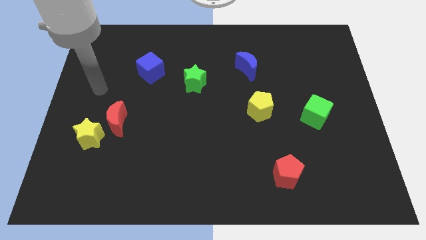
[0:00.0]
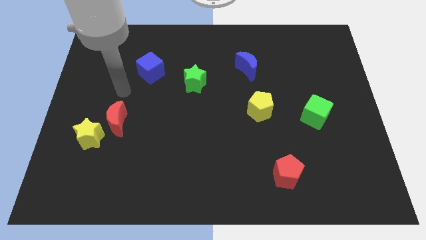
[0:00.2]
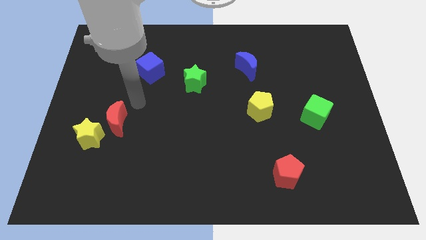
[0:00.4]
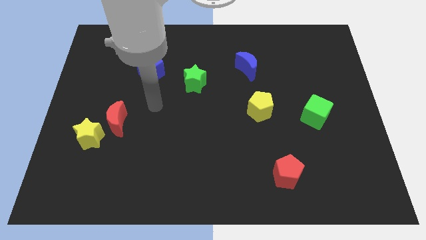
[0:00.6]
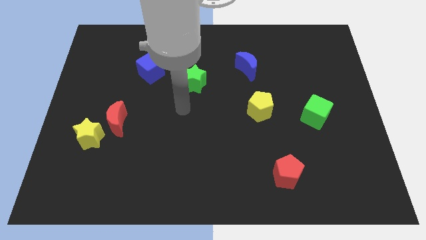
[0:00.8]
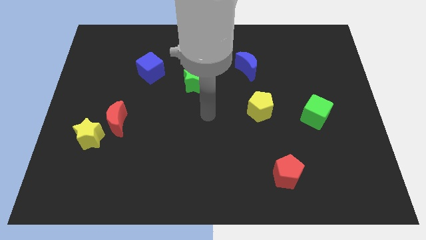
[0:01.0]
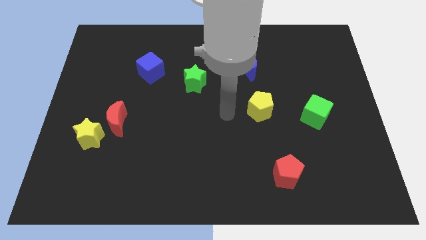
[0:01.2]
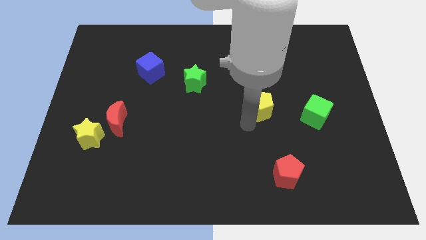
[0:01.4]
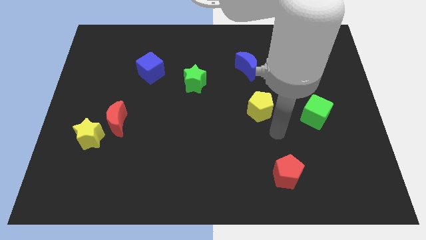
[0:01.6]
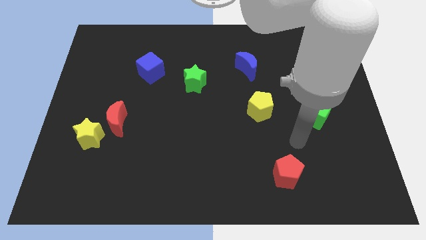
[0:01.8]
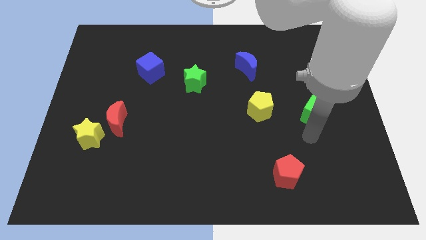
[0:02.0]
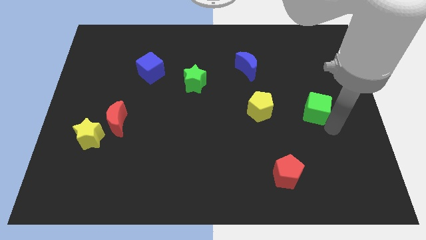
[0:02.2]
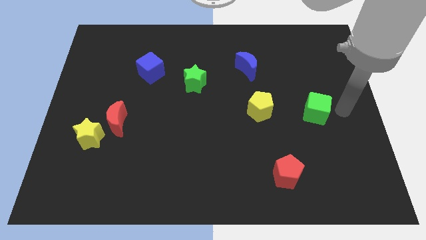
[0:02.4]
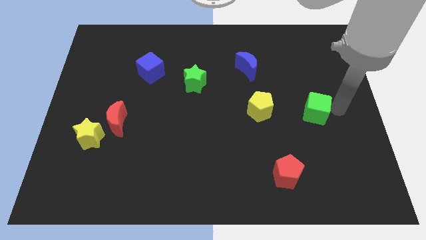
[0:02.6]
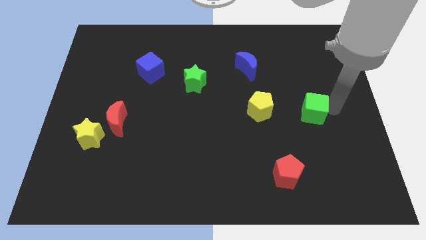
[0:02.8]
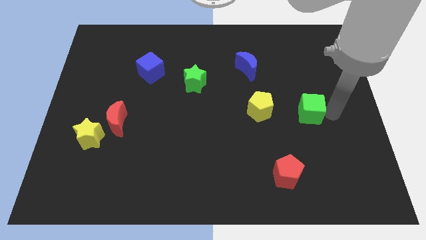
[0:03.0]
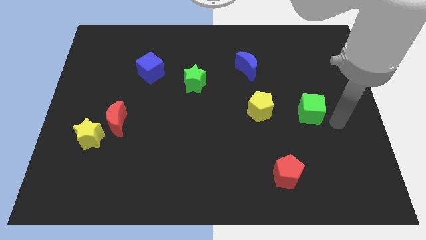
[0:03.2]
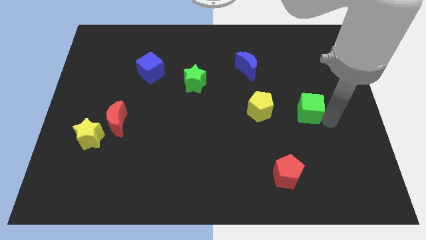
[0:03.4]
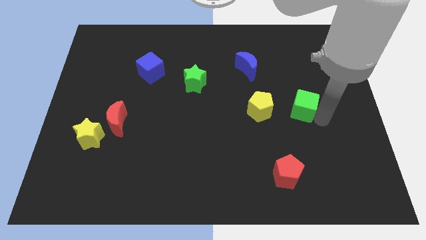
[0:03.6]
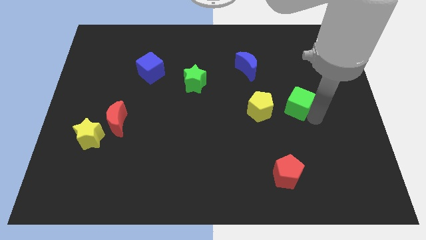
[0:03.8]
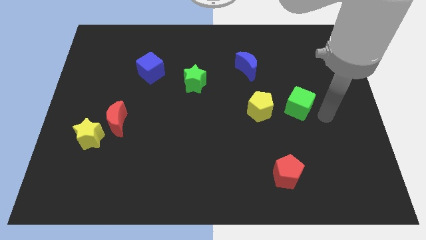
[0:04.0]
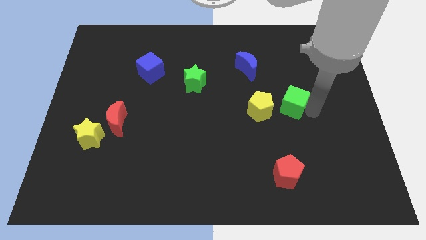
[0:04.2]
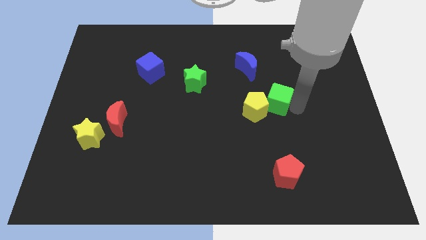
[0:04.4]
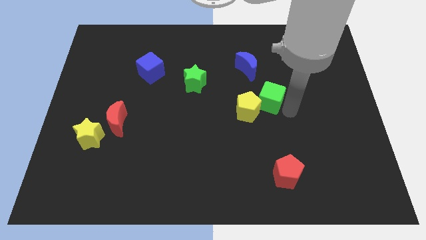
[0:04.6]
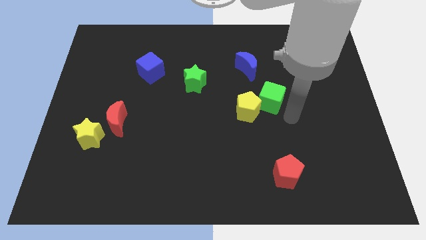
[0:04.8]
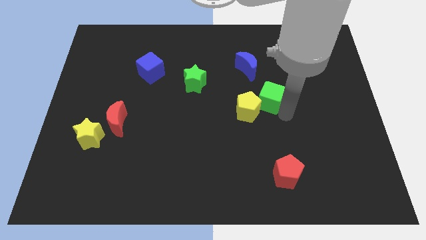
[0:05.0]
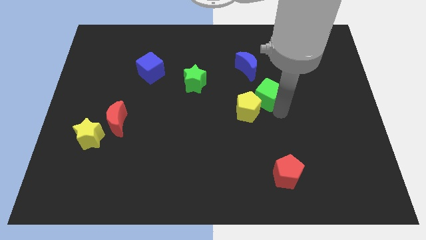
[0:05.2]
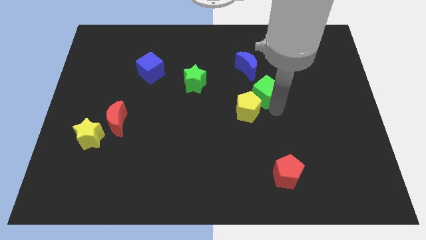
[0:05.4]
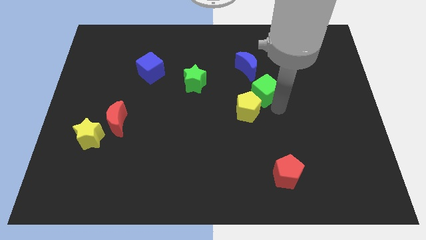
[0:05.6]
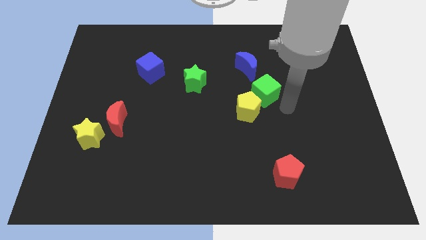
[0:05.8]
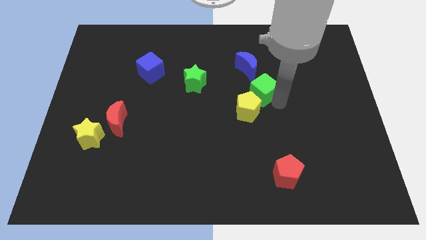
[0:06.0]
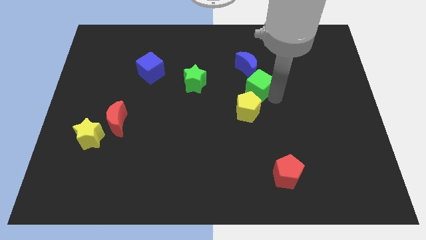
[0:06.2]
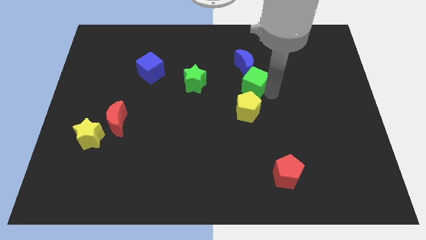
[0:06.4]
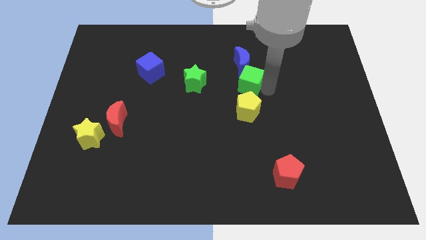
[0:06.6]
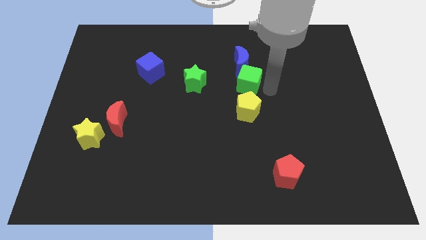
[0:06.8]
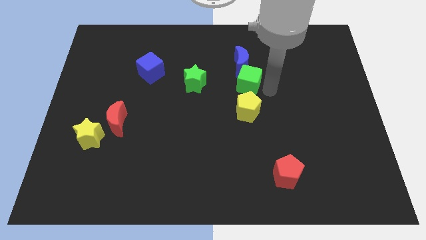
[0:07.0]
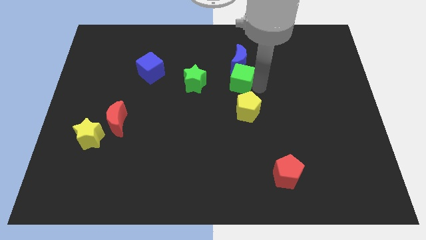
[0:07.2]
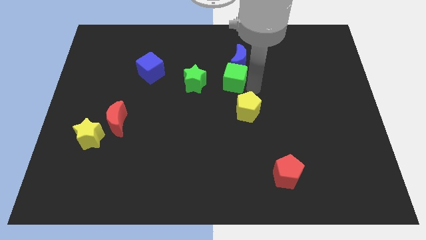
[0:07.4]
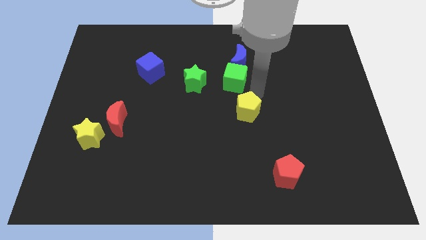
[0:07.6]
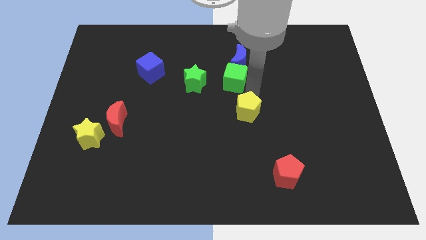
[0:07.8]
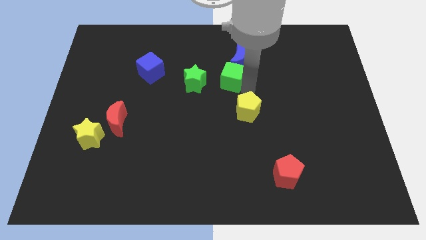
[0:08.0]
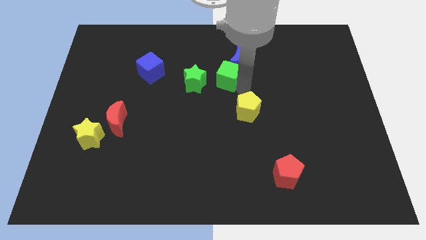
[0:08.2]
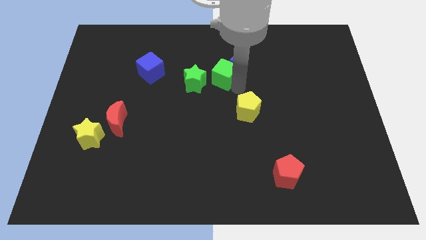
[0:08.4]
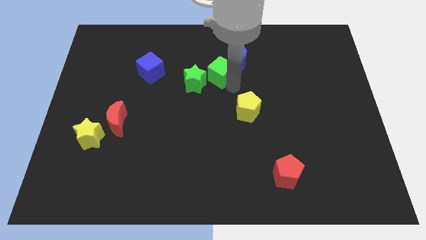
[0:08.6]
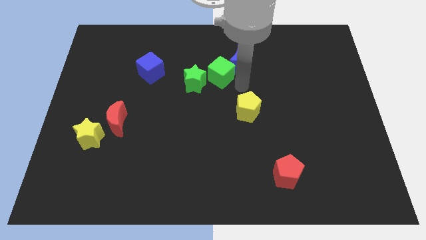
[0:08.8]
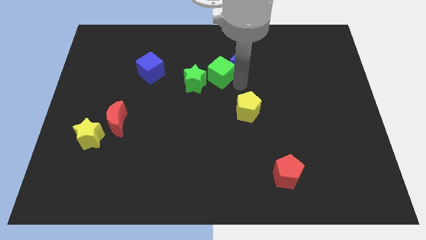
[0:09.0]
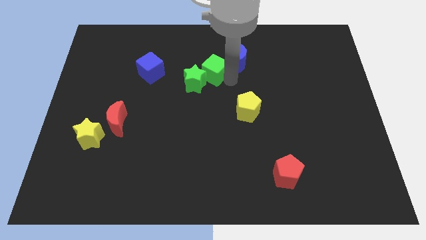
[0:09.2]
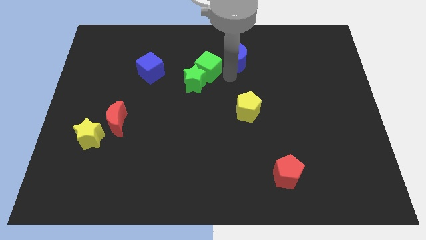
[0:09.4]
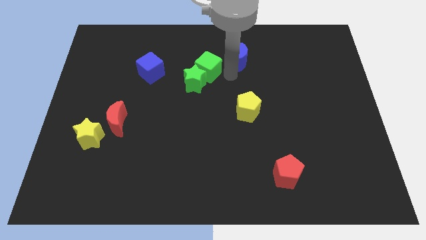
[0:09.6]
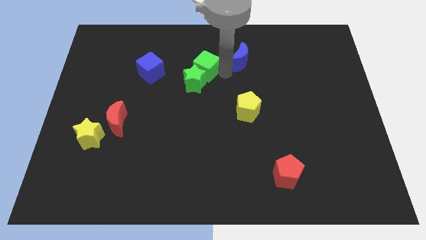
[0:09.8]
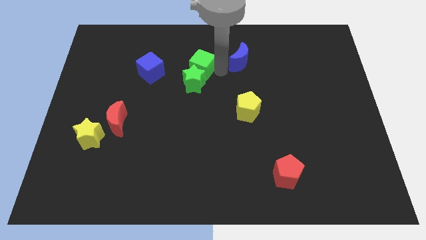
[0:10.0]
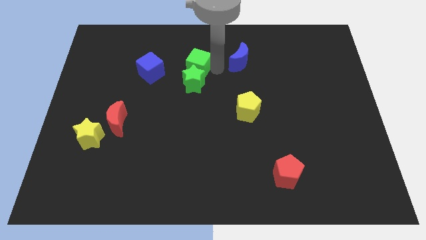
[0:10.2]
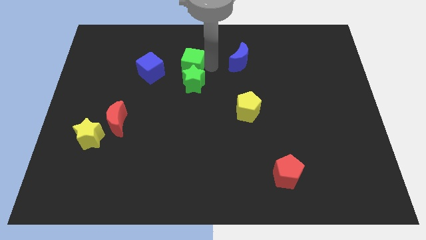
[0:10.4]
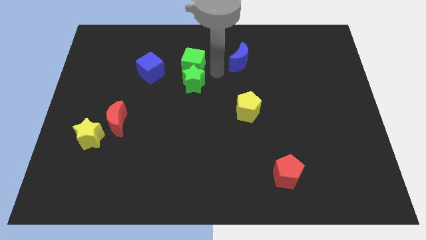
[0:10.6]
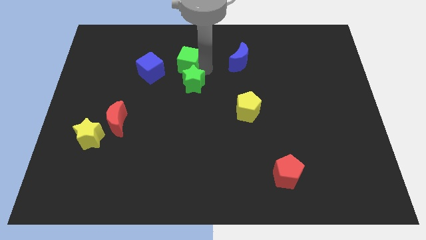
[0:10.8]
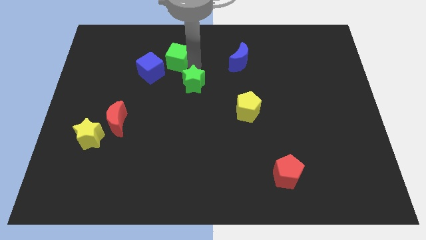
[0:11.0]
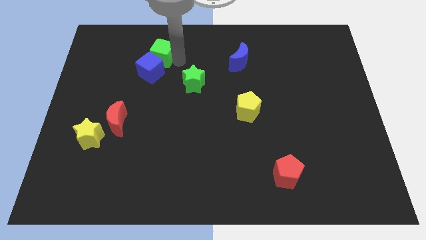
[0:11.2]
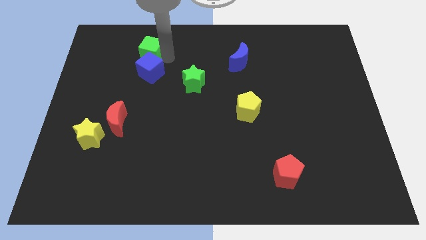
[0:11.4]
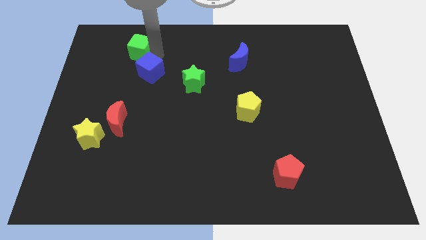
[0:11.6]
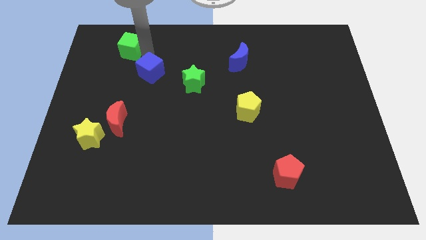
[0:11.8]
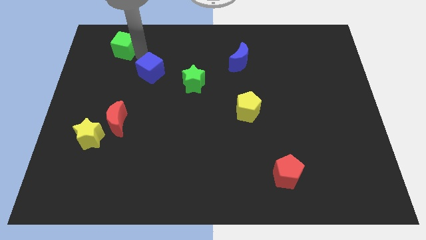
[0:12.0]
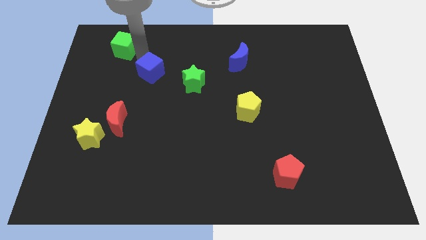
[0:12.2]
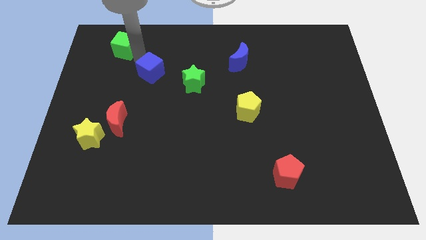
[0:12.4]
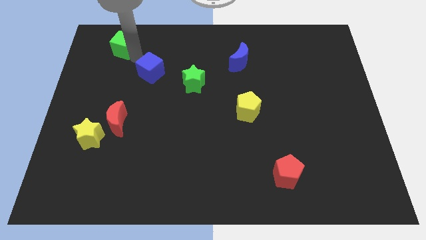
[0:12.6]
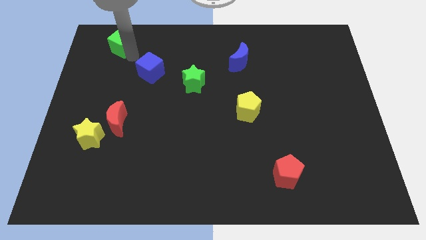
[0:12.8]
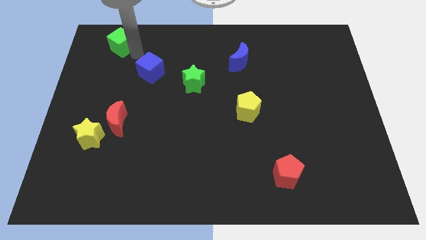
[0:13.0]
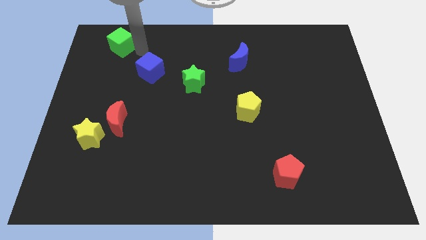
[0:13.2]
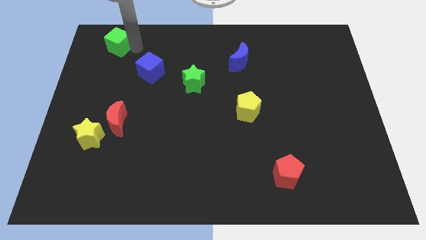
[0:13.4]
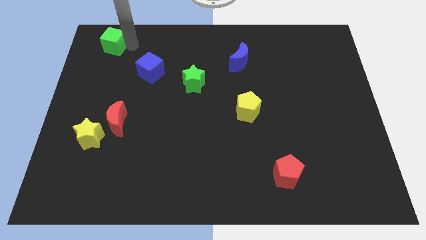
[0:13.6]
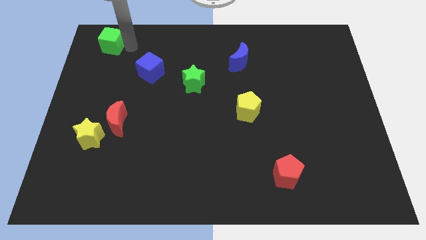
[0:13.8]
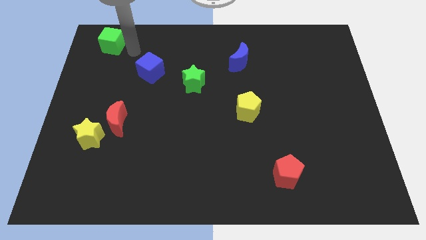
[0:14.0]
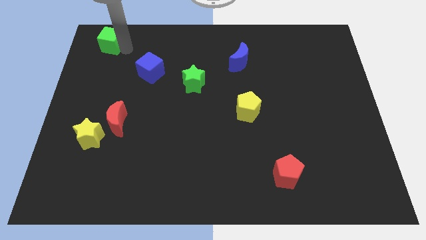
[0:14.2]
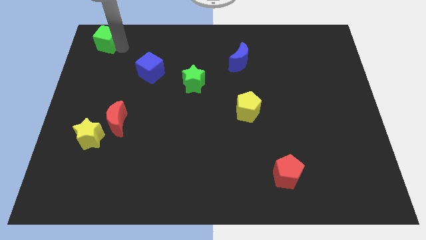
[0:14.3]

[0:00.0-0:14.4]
slide the green cube to the top left
